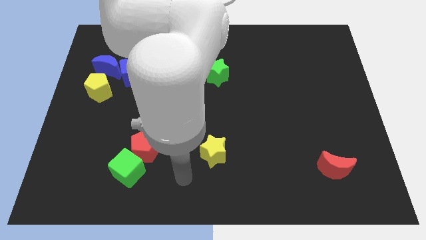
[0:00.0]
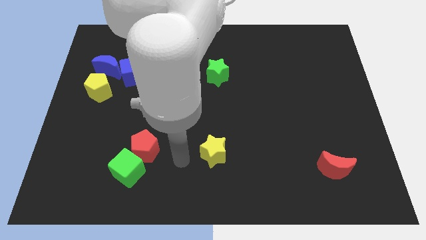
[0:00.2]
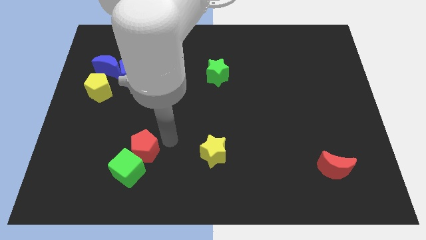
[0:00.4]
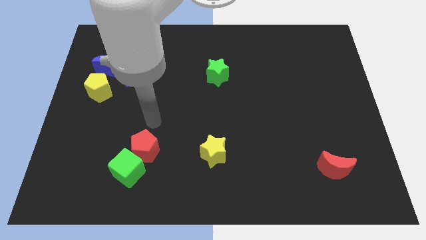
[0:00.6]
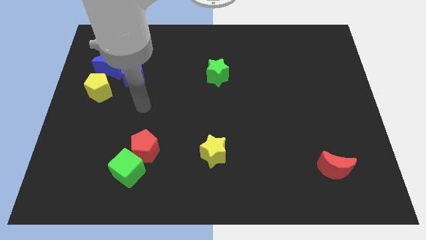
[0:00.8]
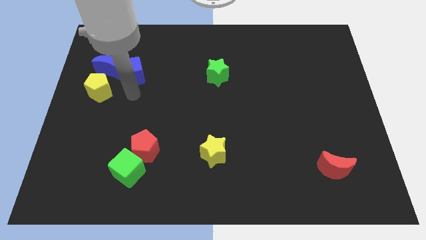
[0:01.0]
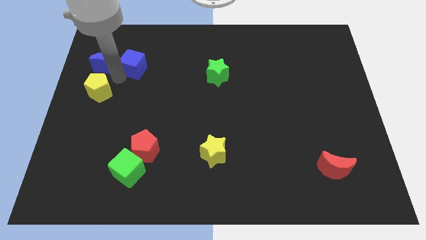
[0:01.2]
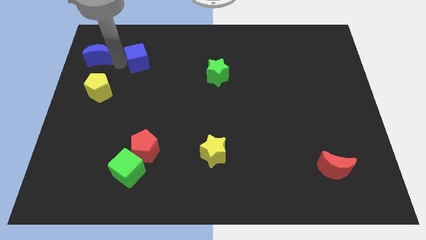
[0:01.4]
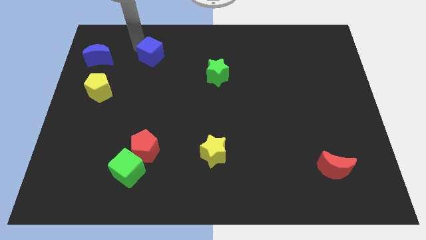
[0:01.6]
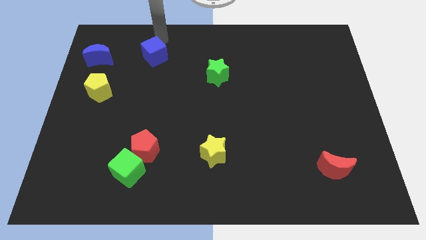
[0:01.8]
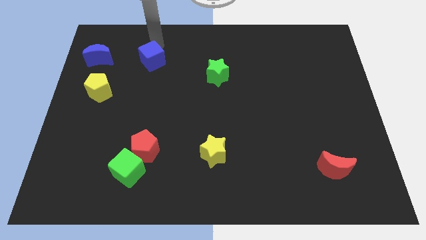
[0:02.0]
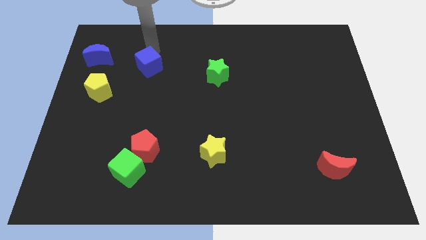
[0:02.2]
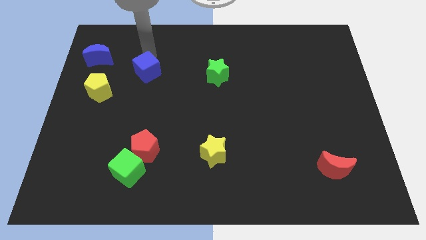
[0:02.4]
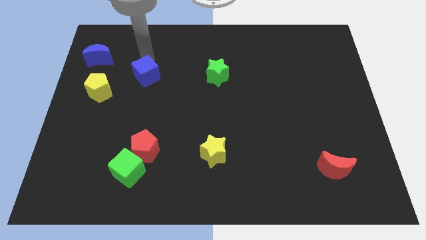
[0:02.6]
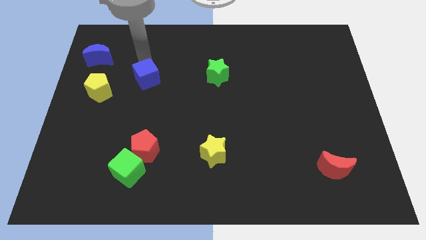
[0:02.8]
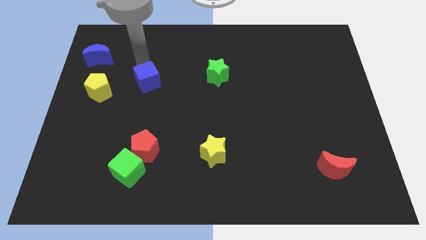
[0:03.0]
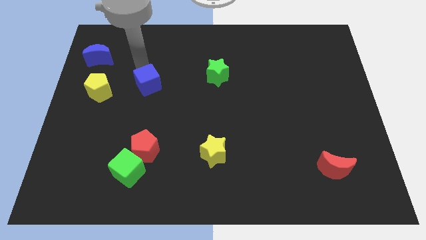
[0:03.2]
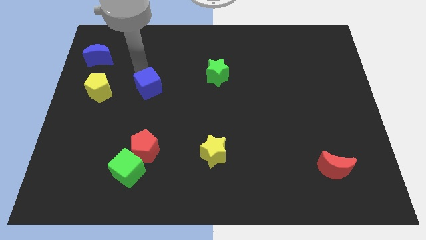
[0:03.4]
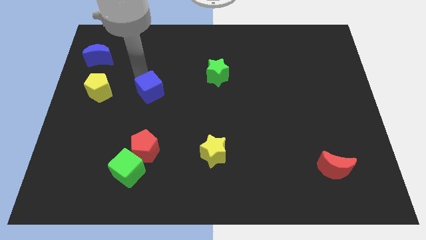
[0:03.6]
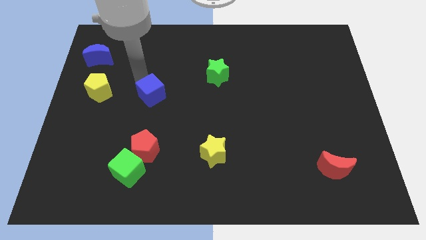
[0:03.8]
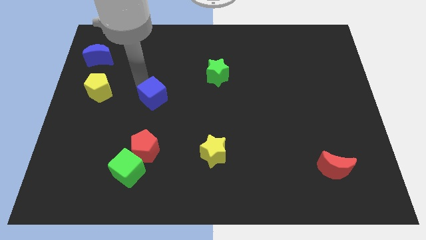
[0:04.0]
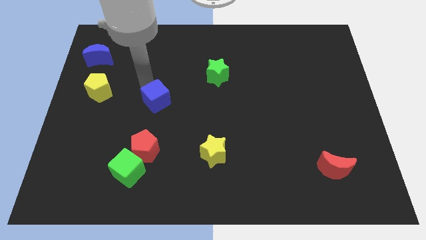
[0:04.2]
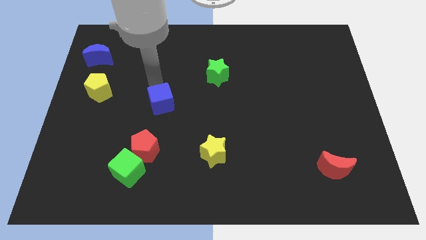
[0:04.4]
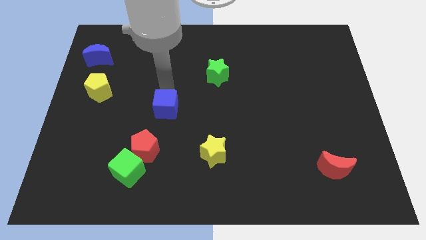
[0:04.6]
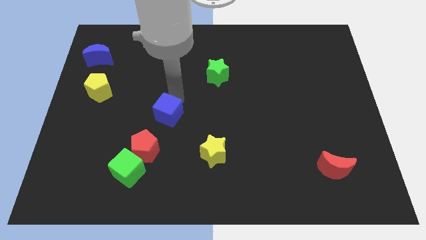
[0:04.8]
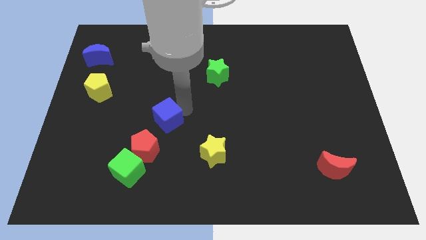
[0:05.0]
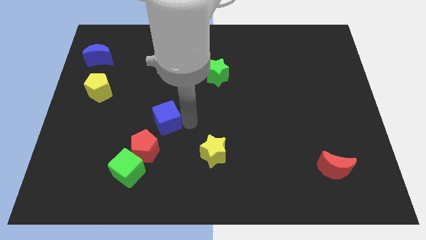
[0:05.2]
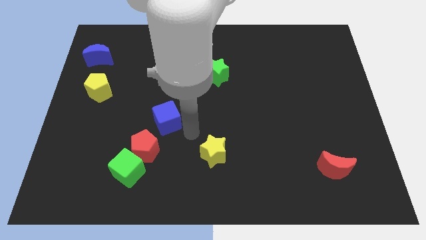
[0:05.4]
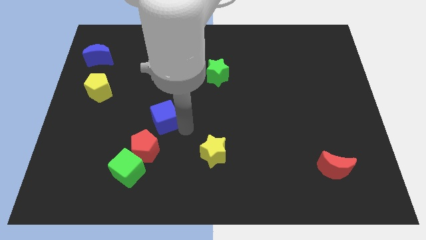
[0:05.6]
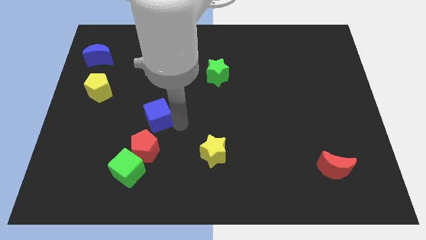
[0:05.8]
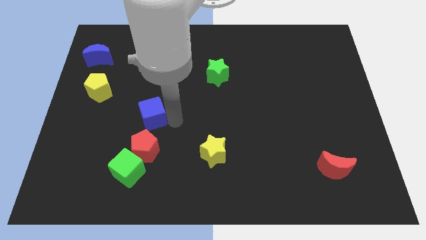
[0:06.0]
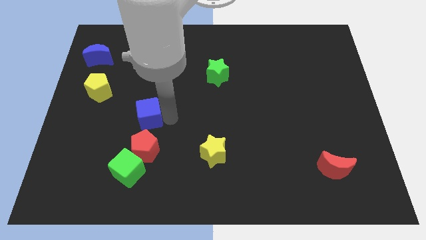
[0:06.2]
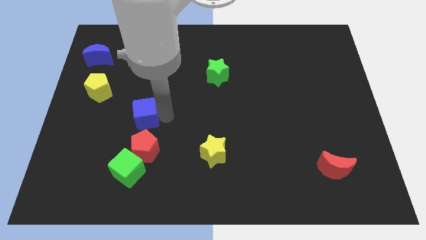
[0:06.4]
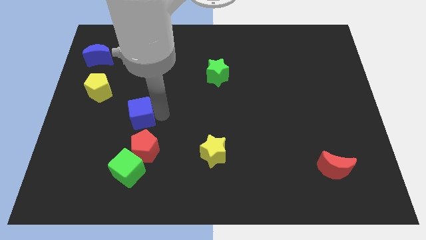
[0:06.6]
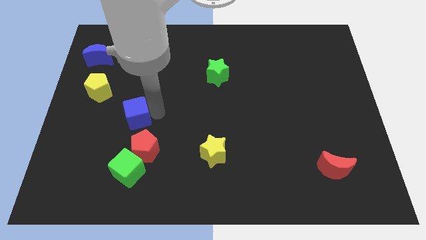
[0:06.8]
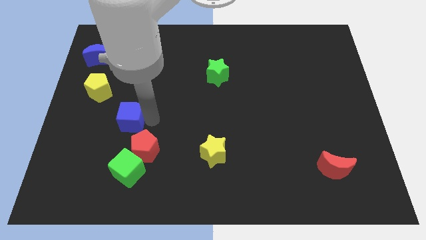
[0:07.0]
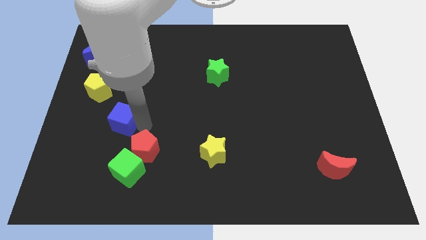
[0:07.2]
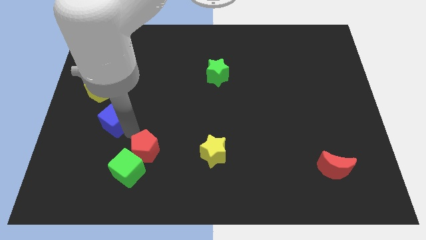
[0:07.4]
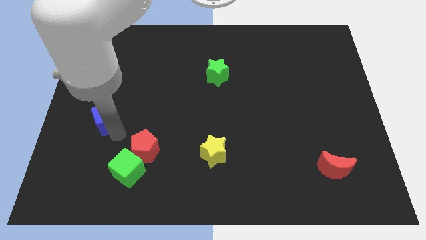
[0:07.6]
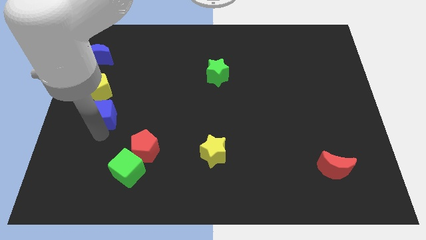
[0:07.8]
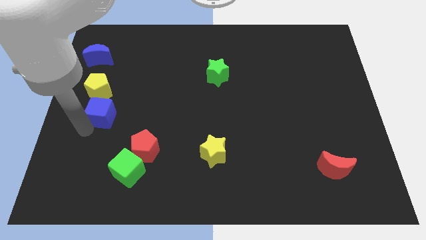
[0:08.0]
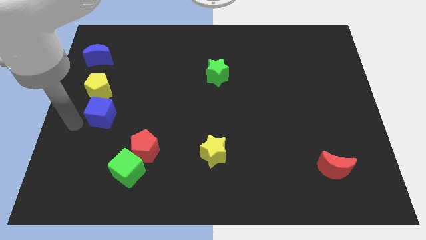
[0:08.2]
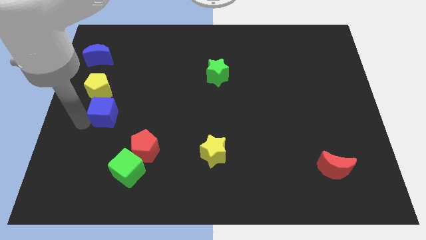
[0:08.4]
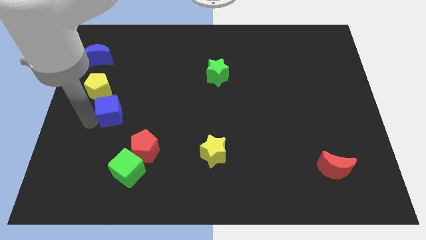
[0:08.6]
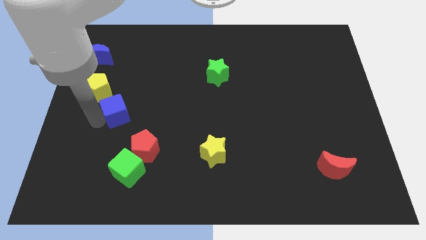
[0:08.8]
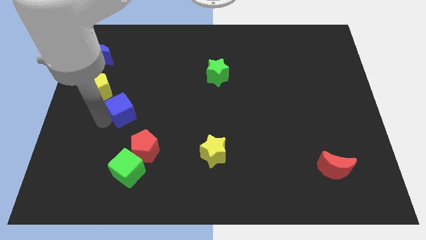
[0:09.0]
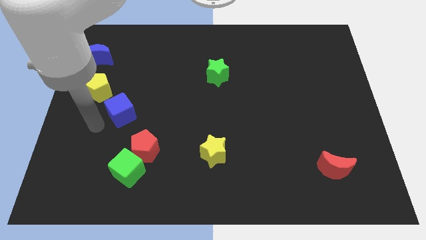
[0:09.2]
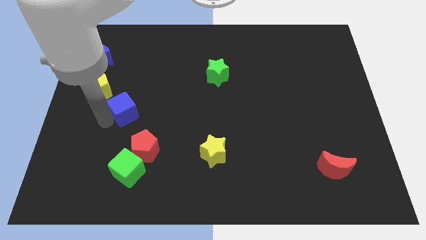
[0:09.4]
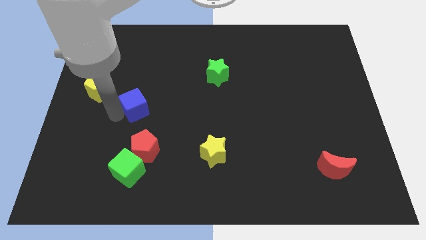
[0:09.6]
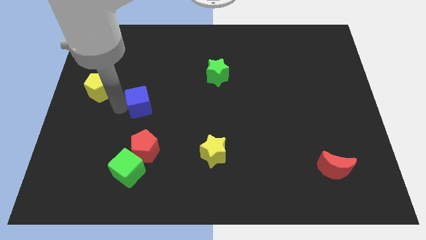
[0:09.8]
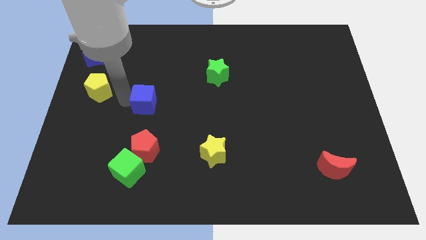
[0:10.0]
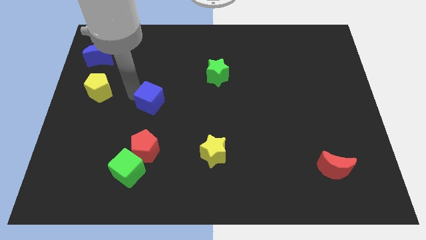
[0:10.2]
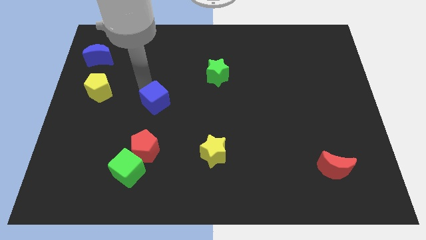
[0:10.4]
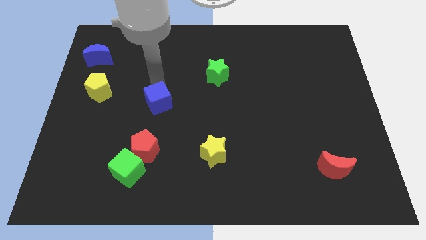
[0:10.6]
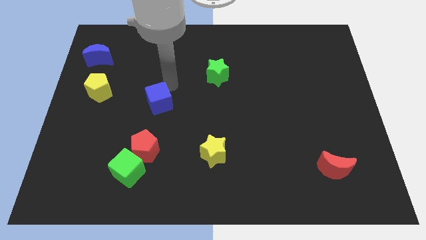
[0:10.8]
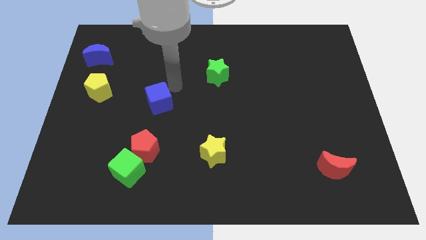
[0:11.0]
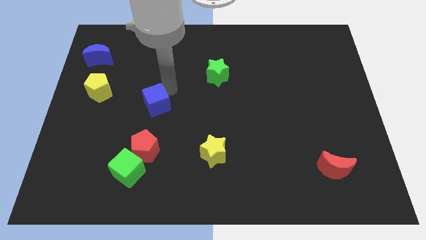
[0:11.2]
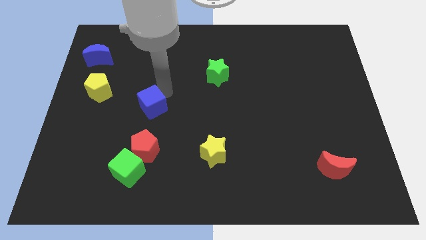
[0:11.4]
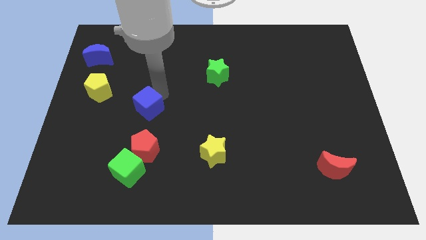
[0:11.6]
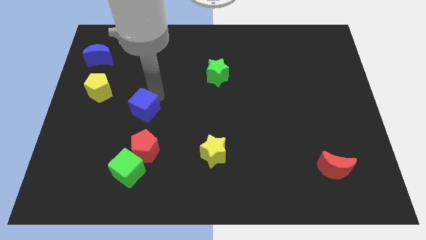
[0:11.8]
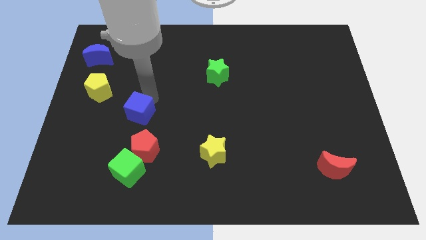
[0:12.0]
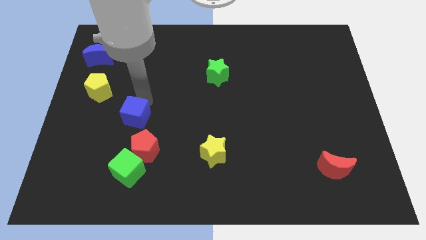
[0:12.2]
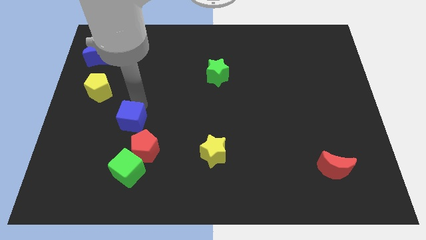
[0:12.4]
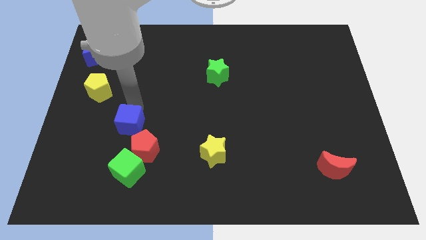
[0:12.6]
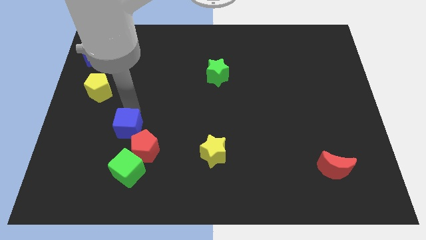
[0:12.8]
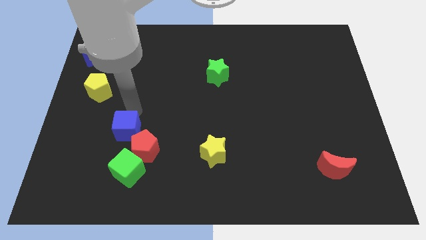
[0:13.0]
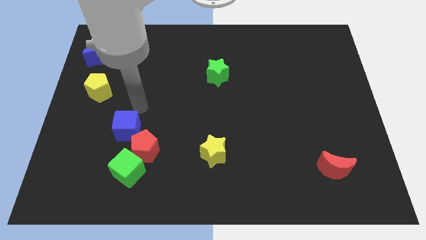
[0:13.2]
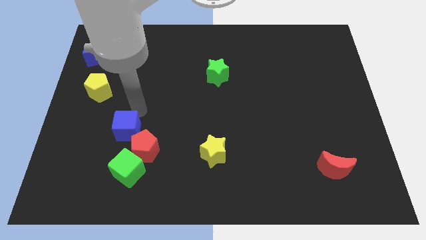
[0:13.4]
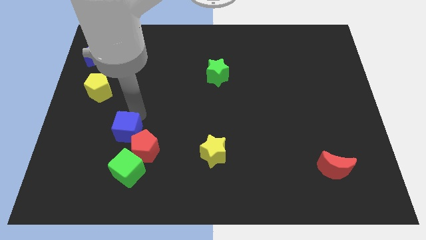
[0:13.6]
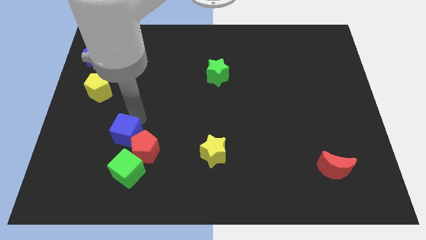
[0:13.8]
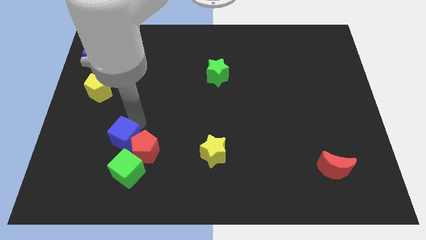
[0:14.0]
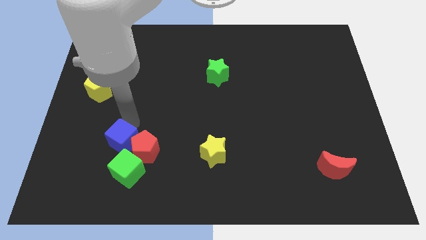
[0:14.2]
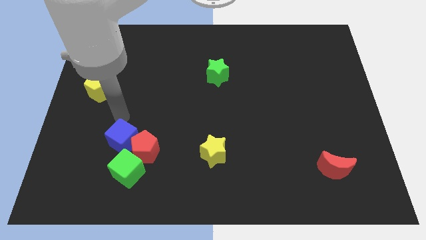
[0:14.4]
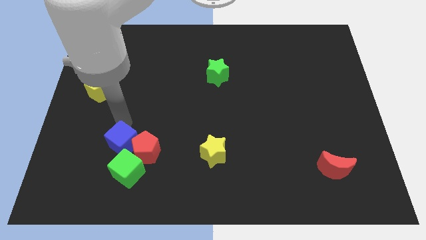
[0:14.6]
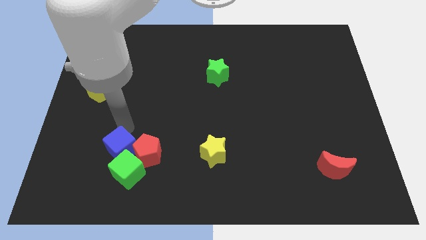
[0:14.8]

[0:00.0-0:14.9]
move the blue cube towards the green cube
